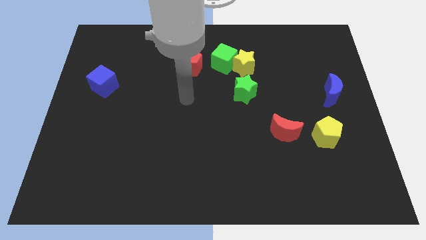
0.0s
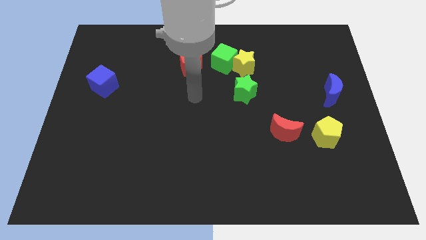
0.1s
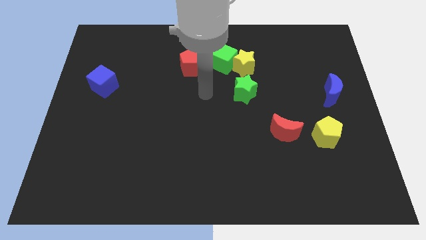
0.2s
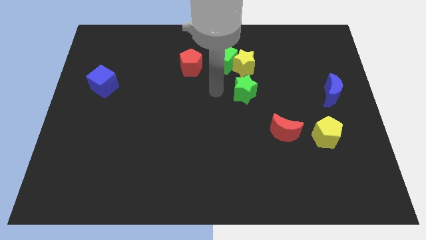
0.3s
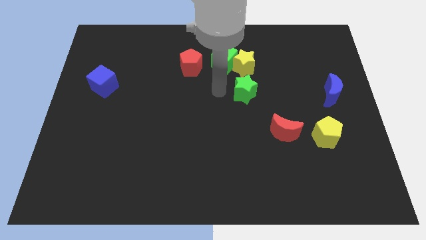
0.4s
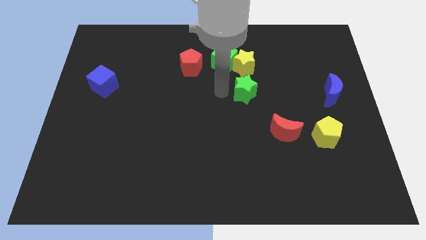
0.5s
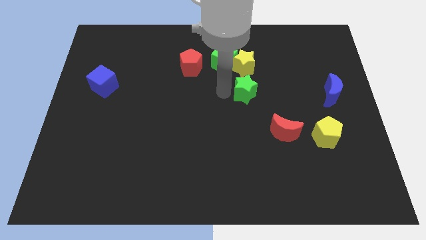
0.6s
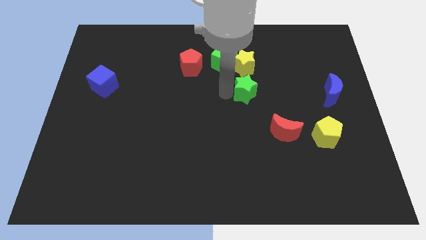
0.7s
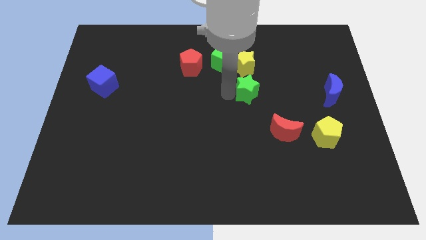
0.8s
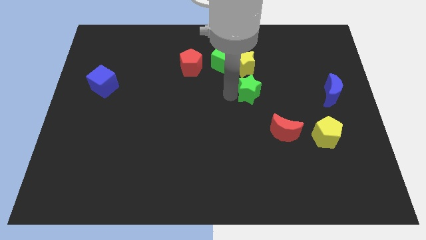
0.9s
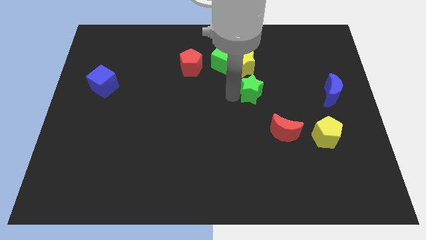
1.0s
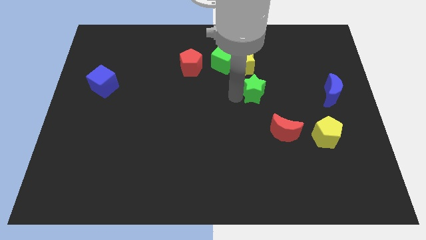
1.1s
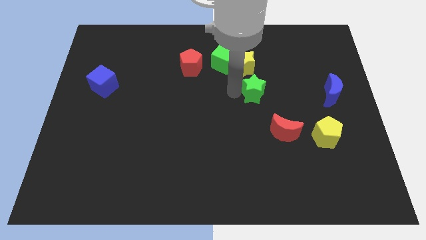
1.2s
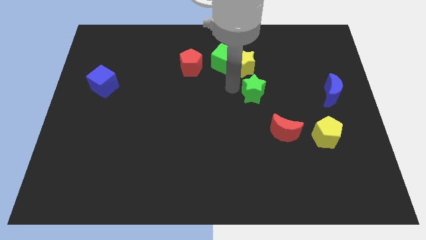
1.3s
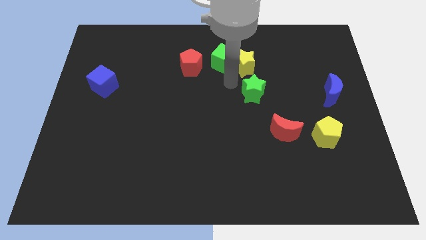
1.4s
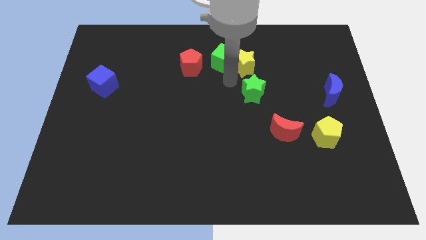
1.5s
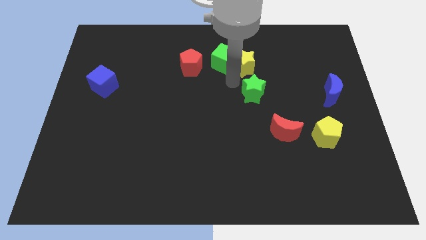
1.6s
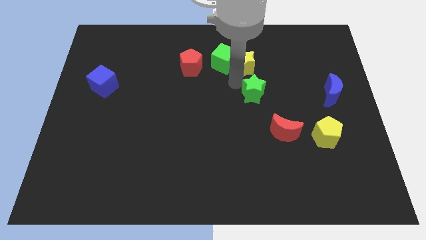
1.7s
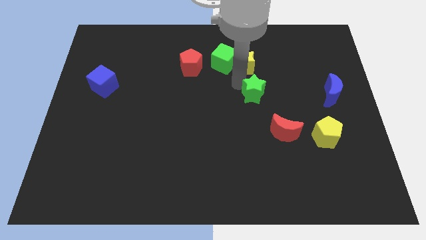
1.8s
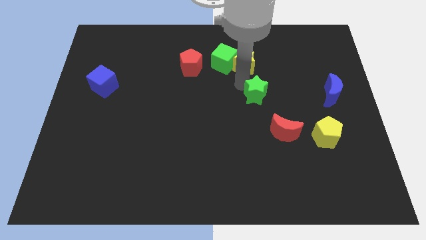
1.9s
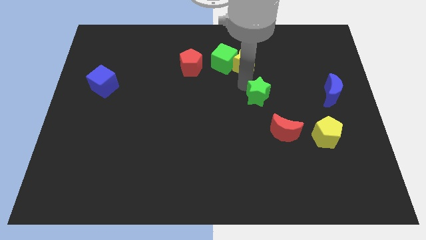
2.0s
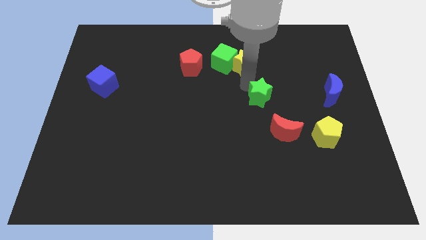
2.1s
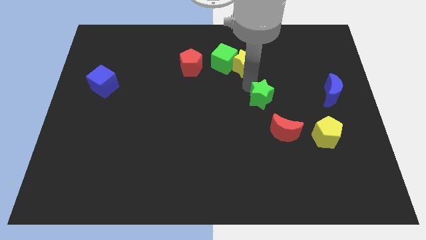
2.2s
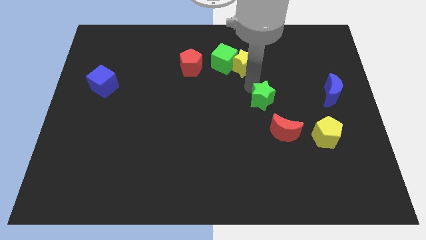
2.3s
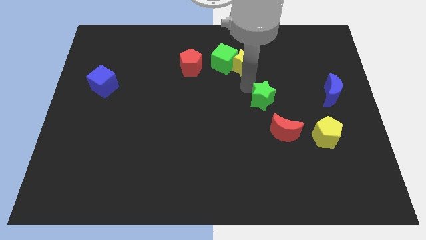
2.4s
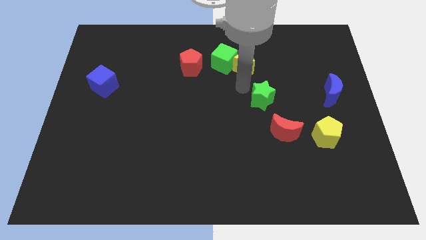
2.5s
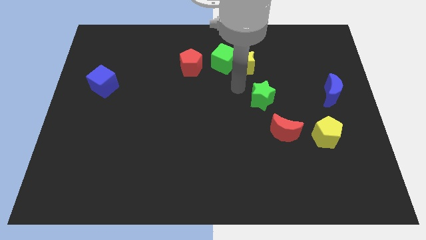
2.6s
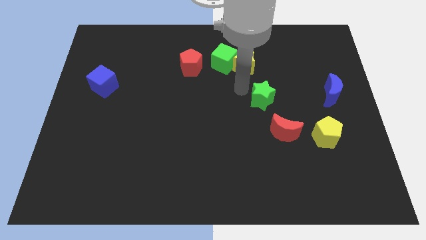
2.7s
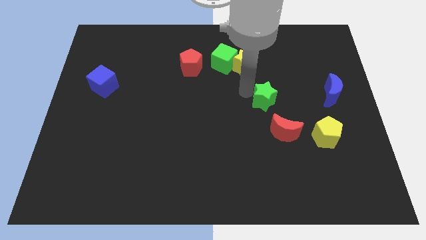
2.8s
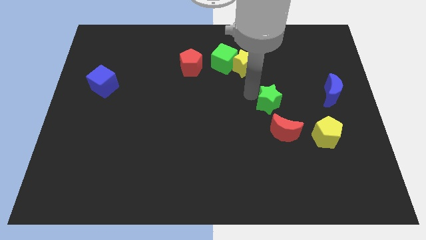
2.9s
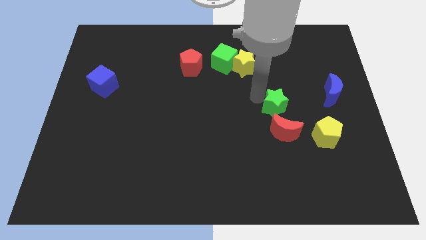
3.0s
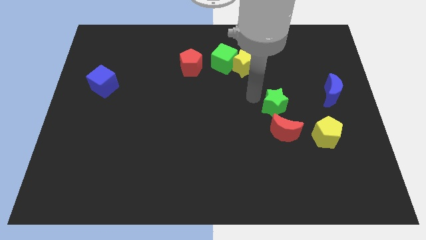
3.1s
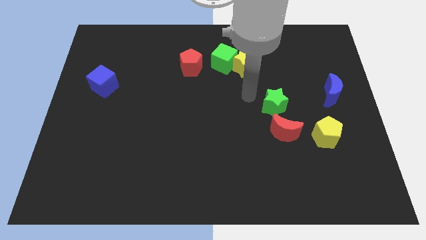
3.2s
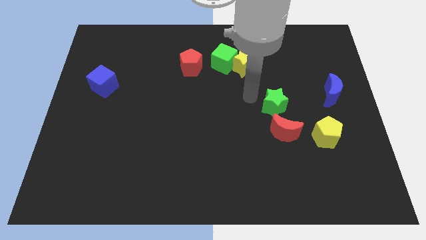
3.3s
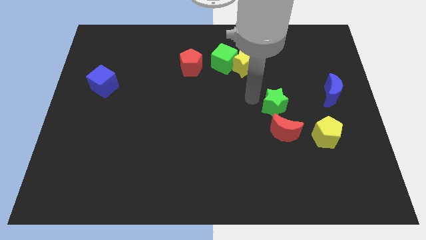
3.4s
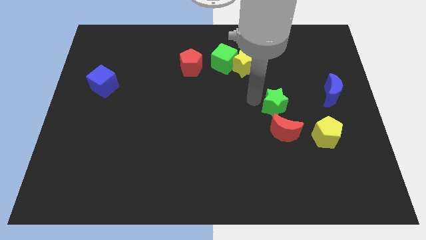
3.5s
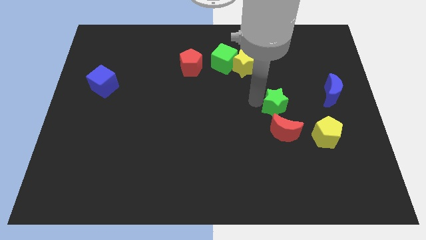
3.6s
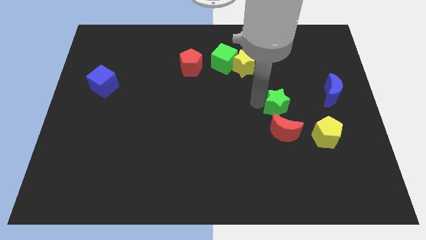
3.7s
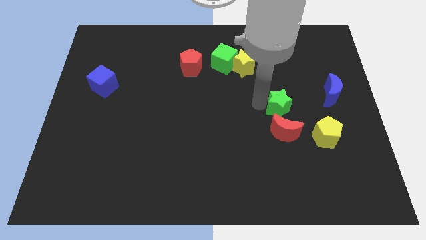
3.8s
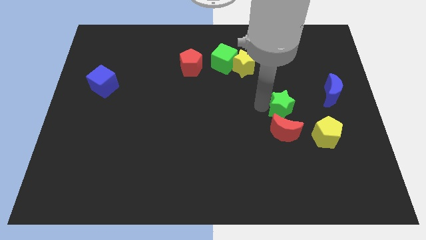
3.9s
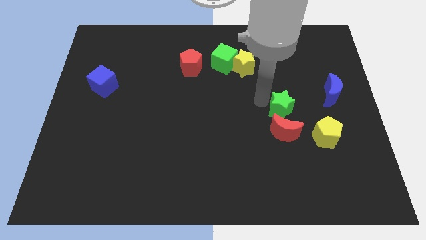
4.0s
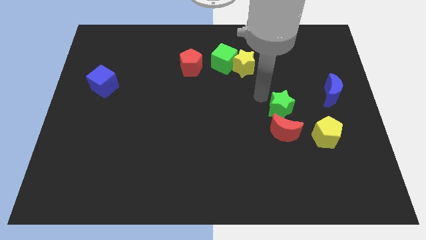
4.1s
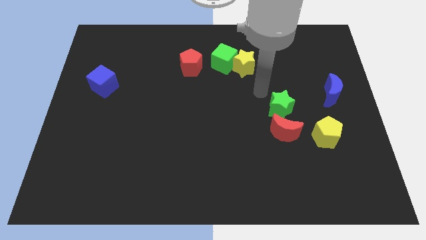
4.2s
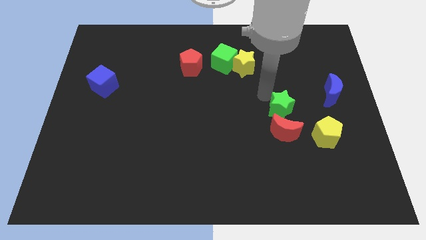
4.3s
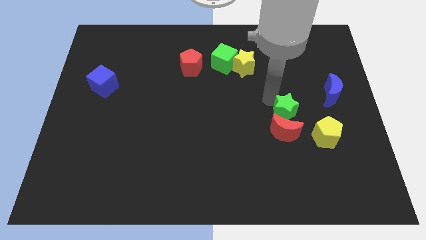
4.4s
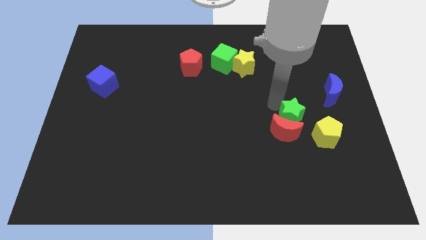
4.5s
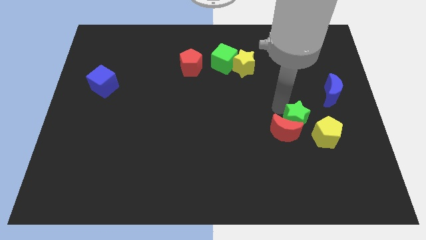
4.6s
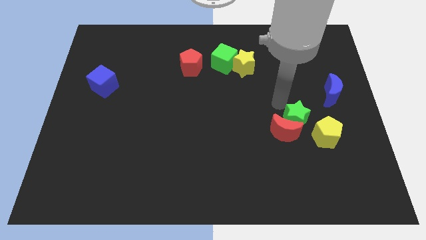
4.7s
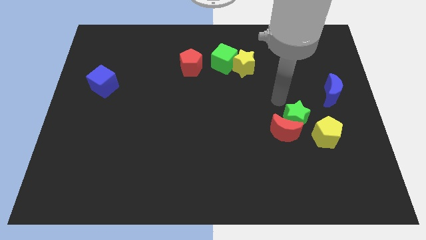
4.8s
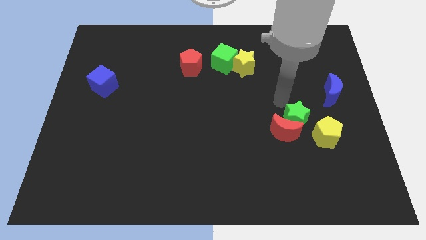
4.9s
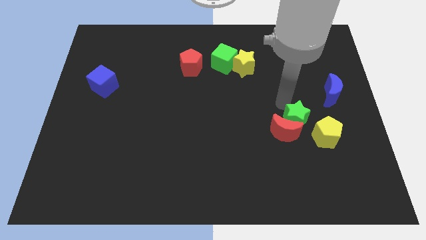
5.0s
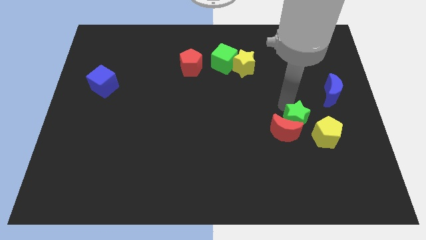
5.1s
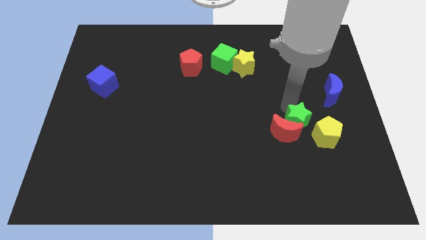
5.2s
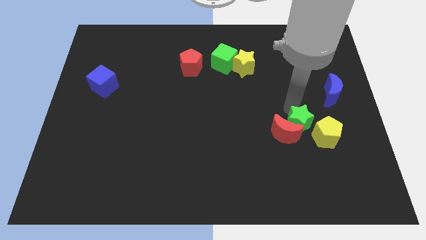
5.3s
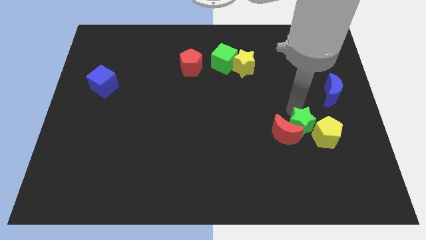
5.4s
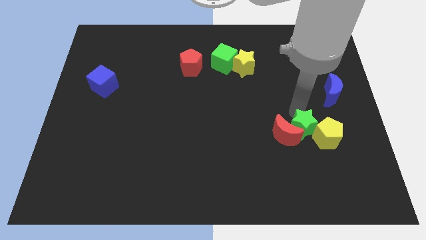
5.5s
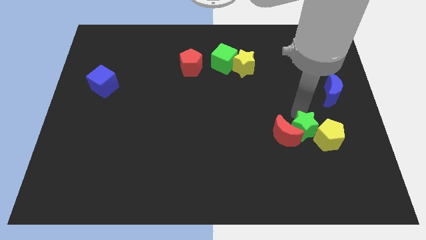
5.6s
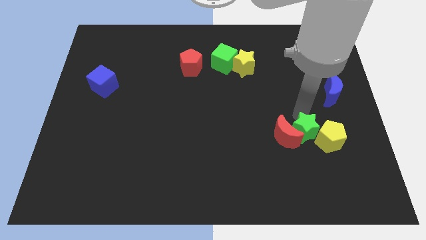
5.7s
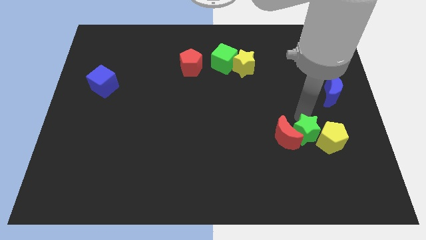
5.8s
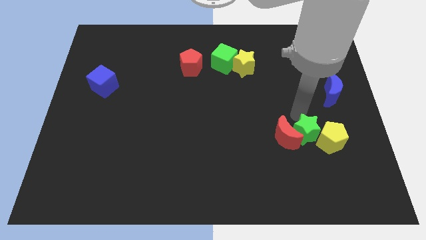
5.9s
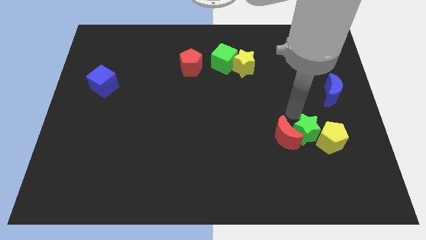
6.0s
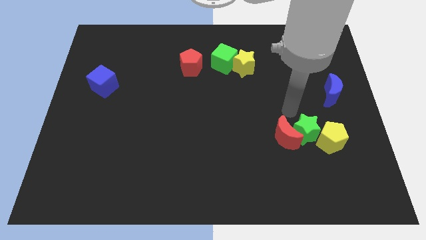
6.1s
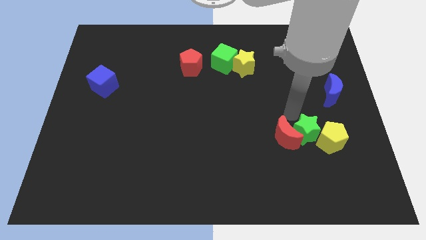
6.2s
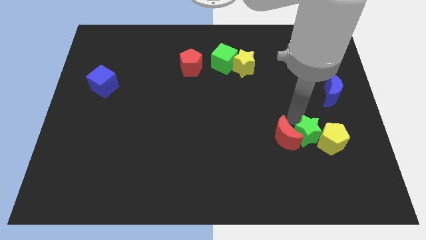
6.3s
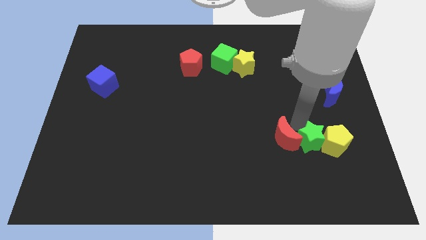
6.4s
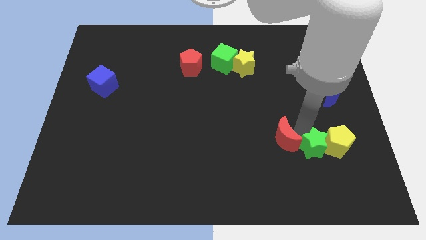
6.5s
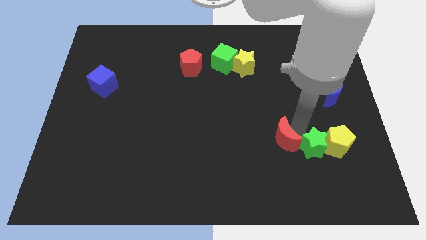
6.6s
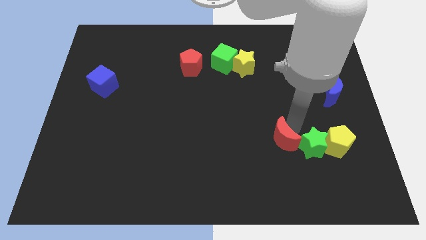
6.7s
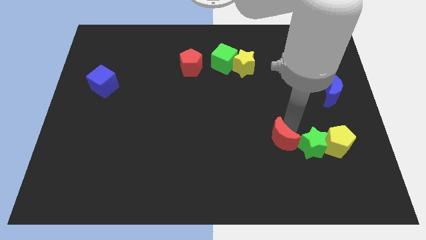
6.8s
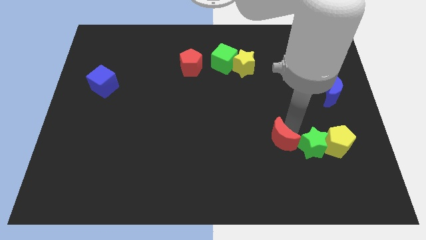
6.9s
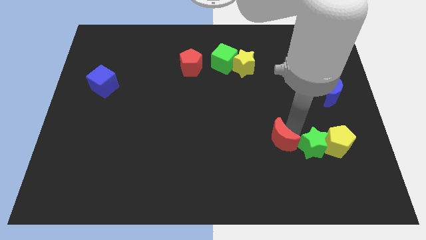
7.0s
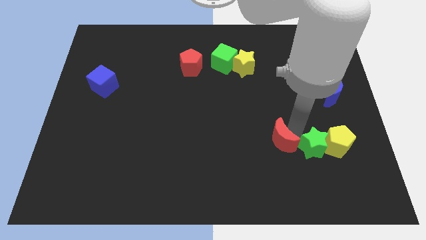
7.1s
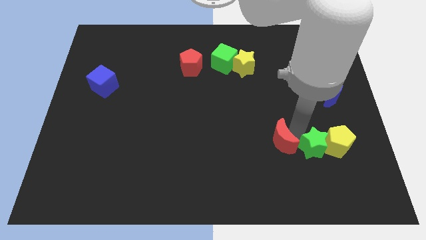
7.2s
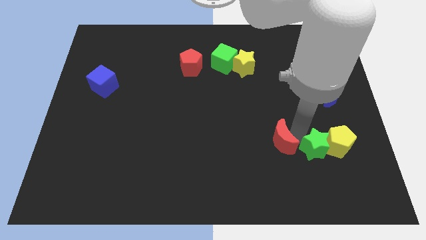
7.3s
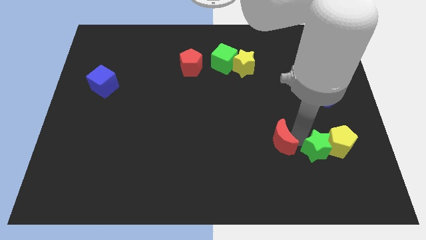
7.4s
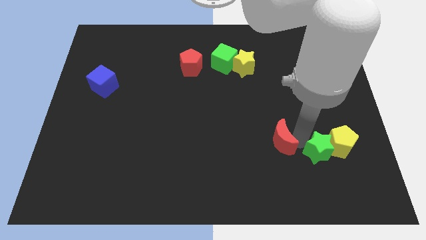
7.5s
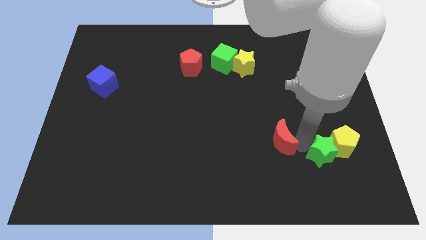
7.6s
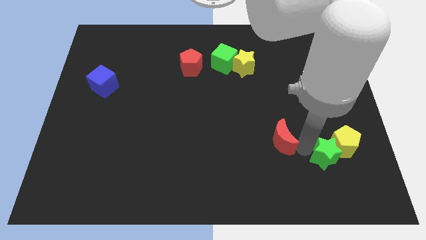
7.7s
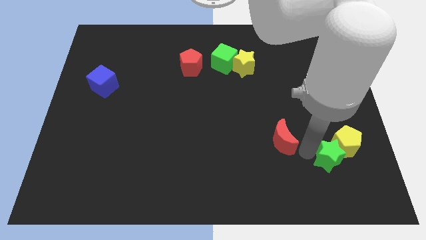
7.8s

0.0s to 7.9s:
push the green star to the bottom of the yellow pentagon
